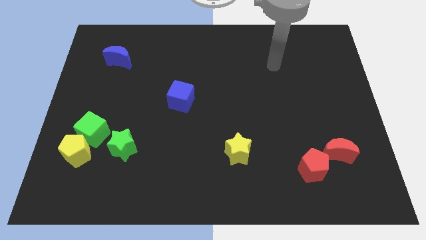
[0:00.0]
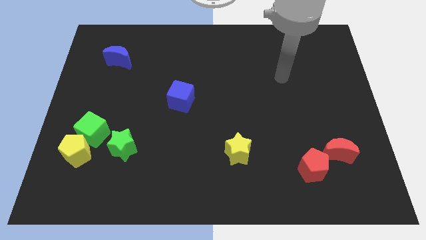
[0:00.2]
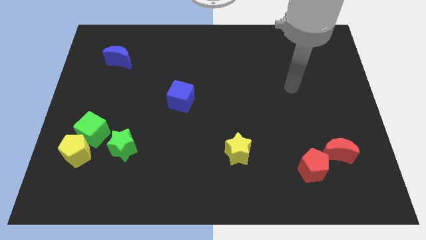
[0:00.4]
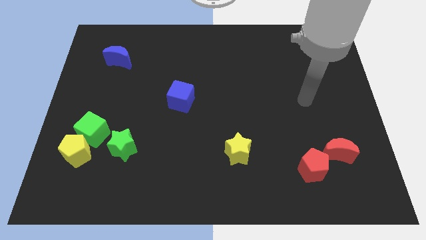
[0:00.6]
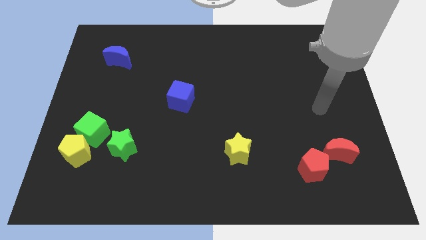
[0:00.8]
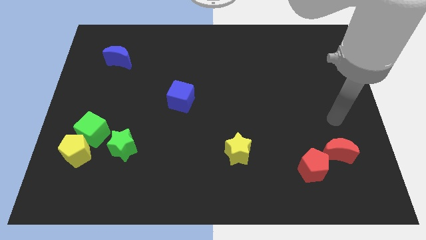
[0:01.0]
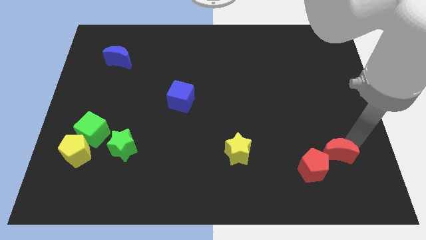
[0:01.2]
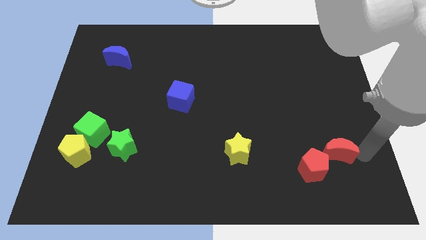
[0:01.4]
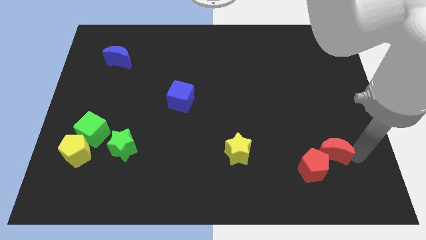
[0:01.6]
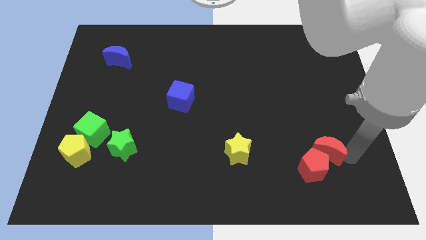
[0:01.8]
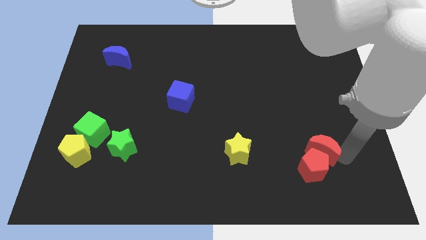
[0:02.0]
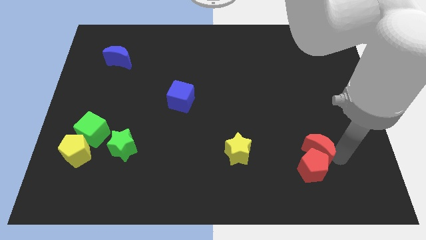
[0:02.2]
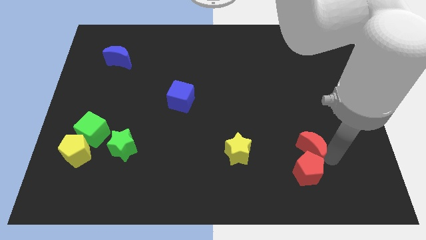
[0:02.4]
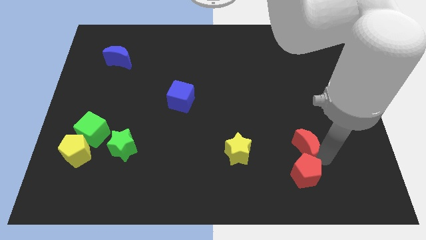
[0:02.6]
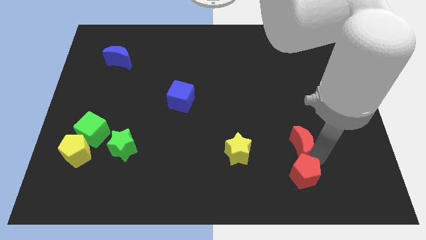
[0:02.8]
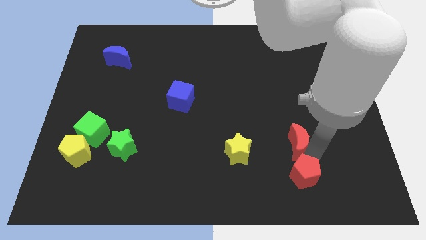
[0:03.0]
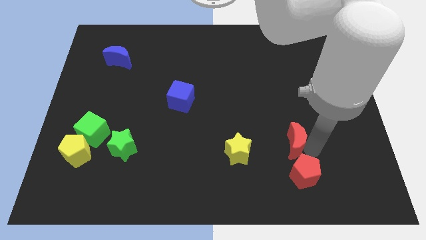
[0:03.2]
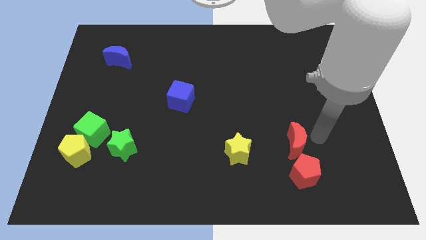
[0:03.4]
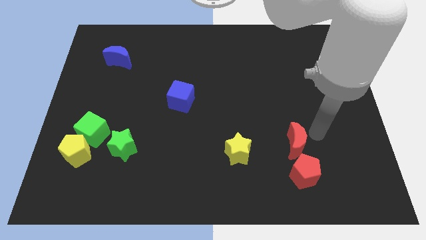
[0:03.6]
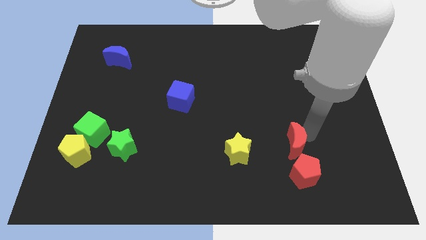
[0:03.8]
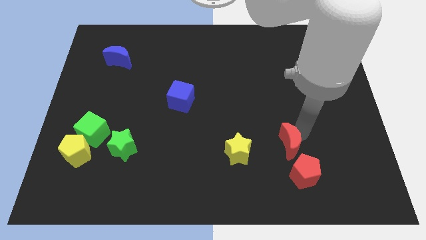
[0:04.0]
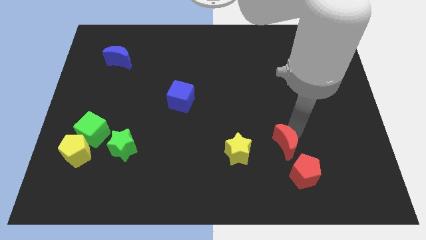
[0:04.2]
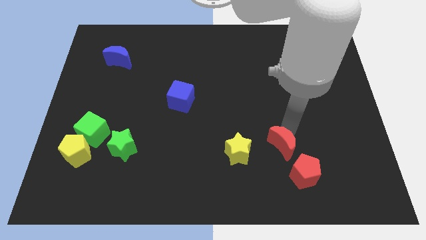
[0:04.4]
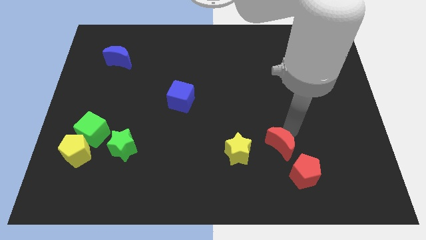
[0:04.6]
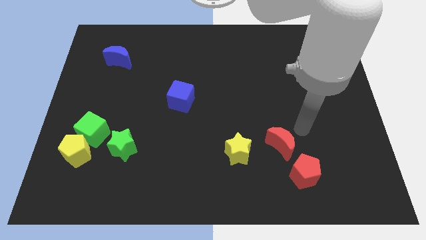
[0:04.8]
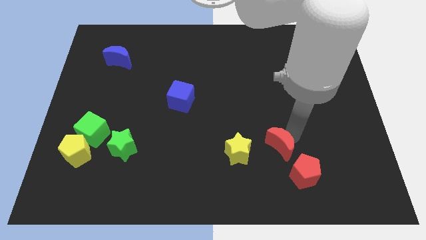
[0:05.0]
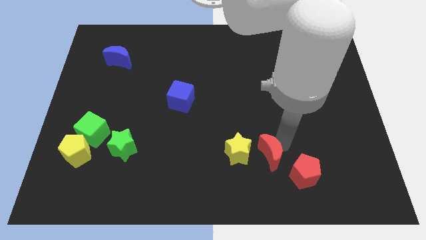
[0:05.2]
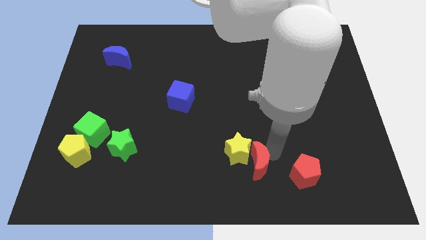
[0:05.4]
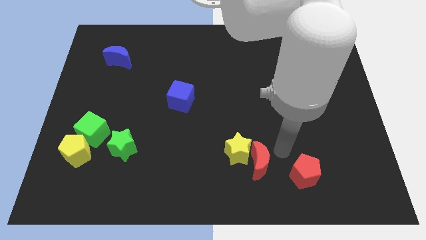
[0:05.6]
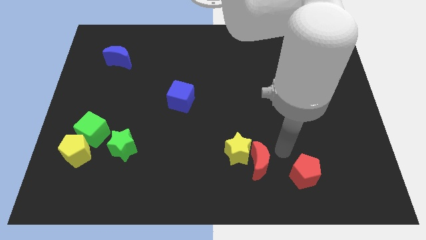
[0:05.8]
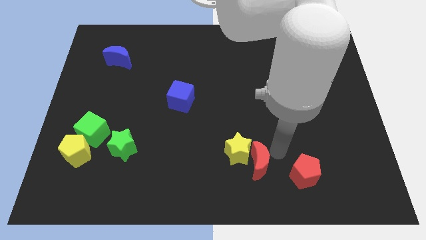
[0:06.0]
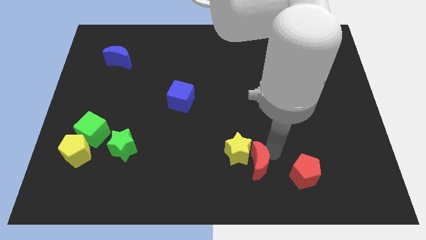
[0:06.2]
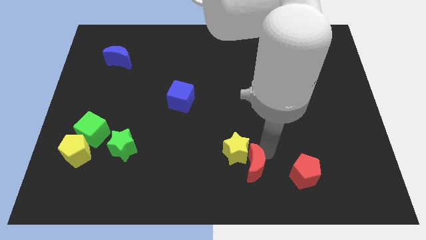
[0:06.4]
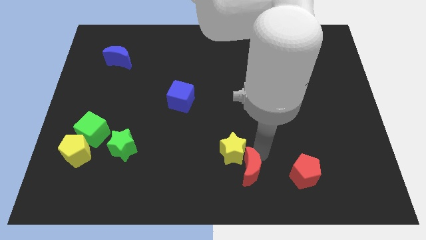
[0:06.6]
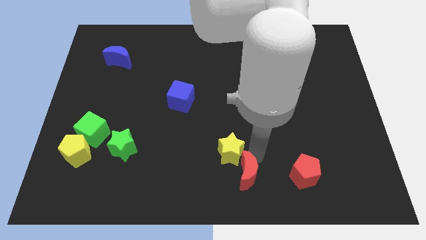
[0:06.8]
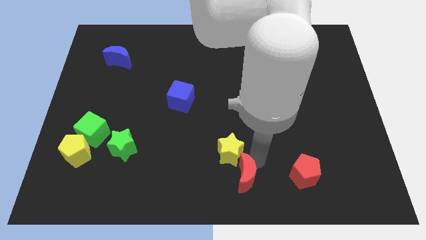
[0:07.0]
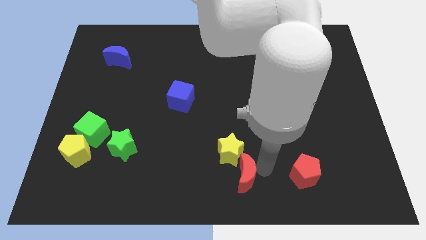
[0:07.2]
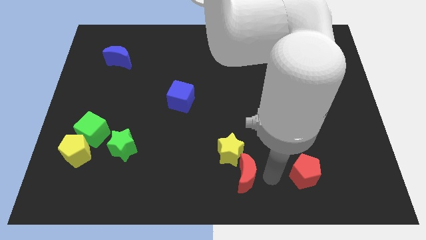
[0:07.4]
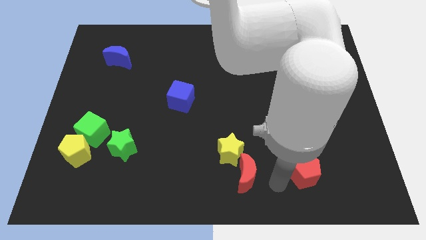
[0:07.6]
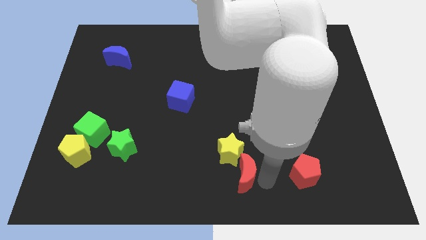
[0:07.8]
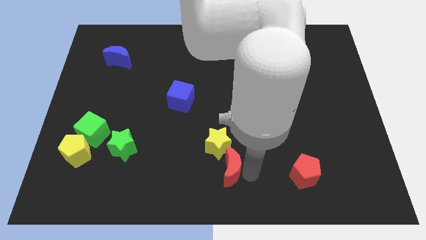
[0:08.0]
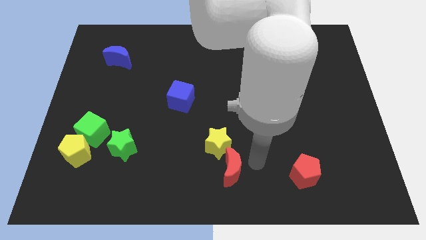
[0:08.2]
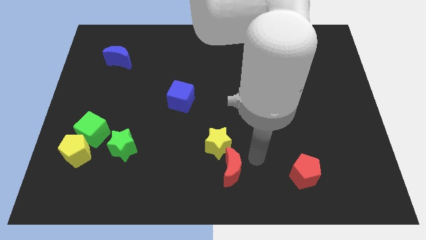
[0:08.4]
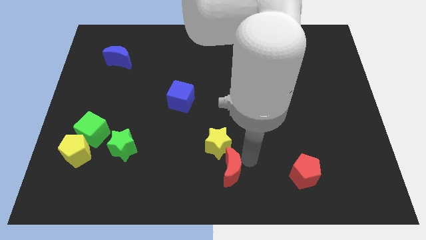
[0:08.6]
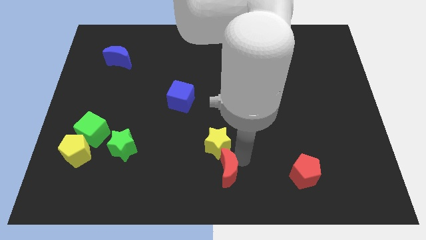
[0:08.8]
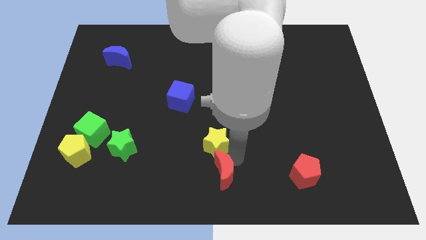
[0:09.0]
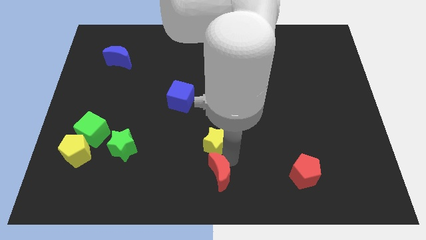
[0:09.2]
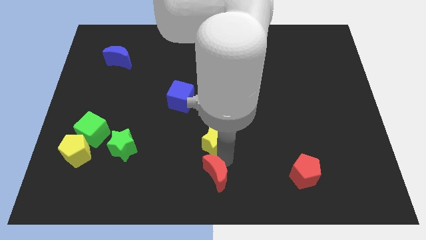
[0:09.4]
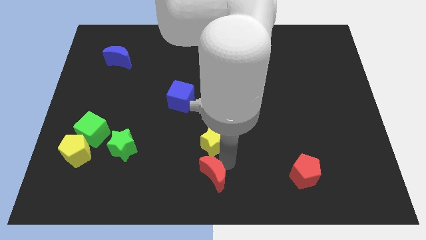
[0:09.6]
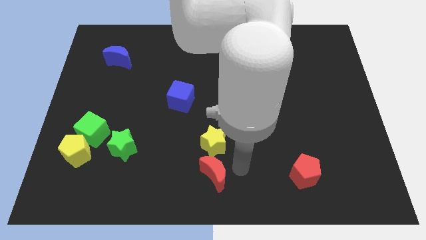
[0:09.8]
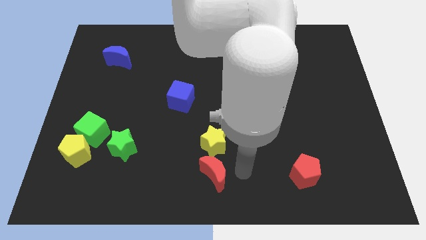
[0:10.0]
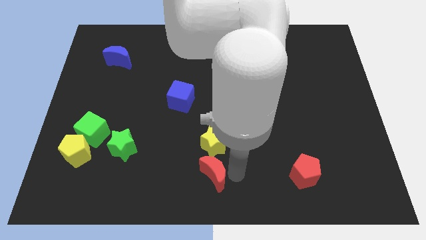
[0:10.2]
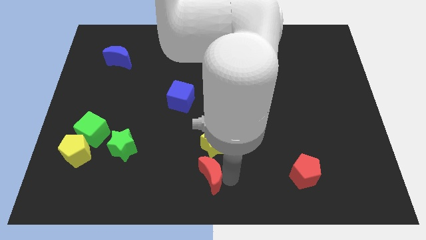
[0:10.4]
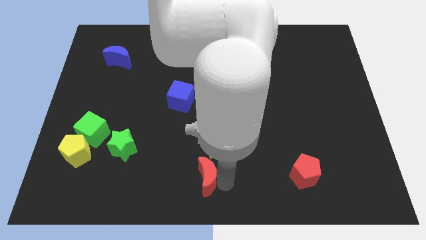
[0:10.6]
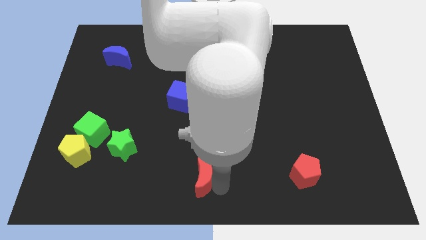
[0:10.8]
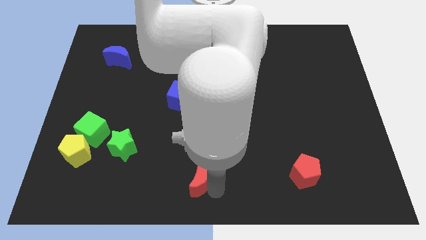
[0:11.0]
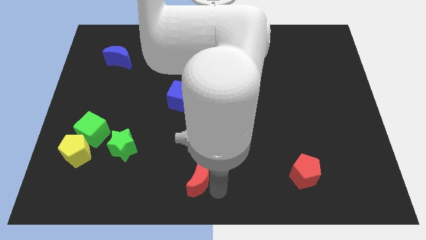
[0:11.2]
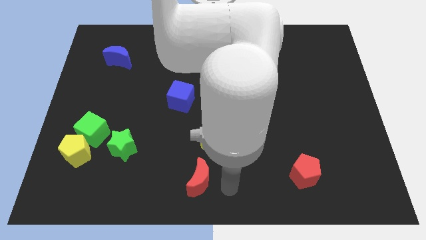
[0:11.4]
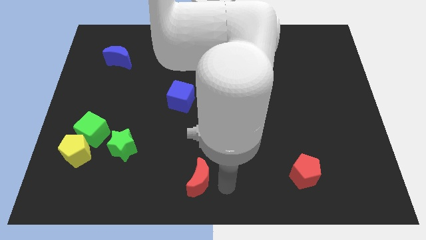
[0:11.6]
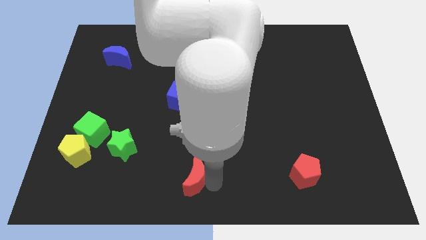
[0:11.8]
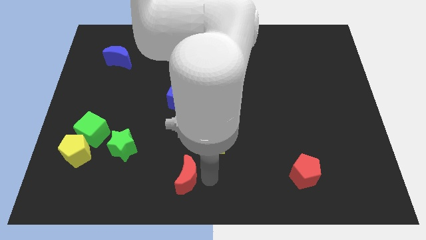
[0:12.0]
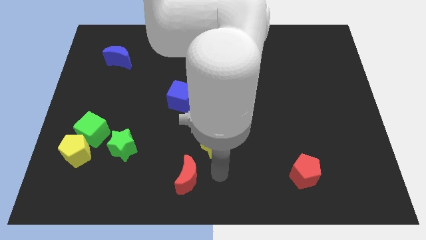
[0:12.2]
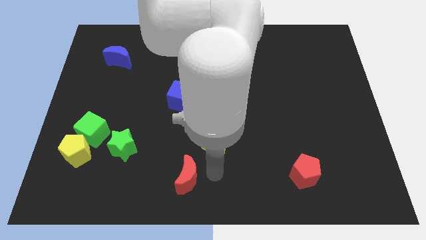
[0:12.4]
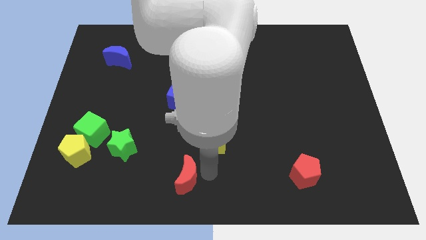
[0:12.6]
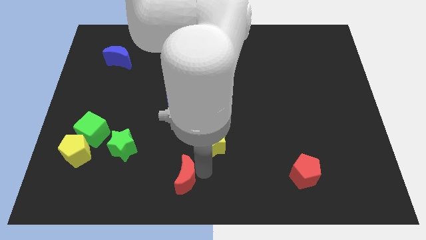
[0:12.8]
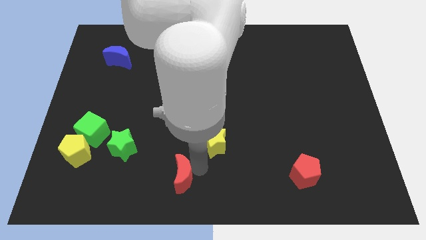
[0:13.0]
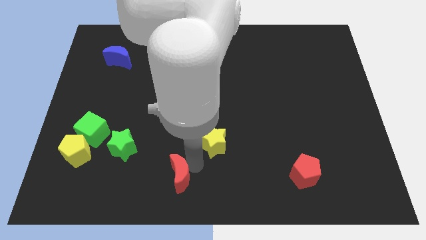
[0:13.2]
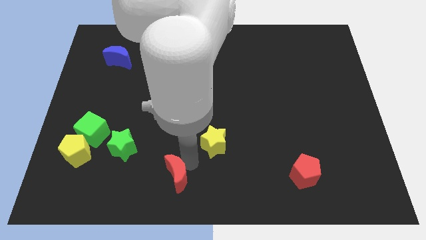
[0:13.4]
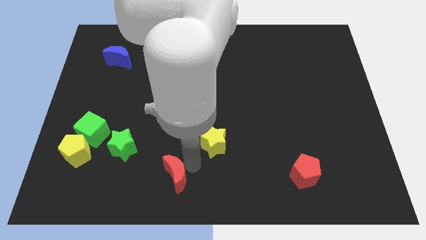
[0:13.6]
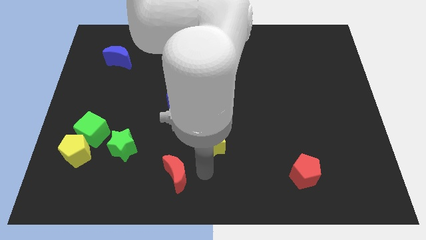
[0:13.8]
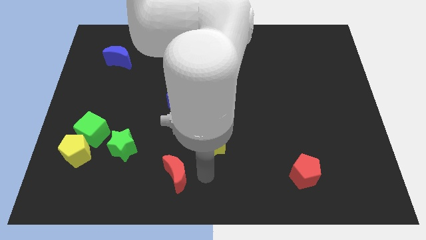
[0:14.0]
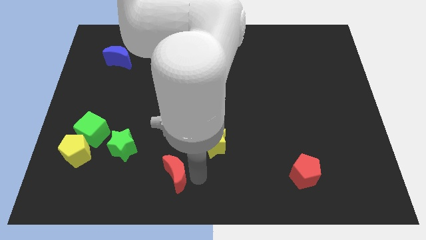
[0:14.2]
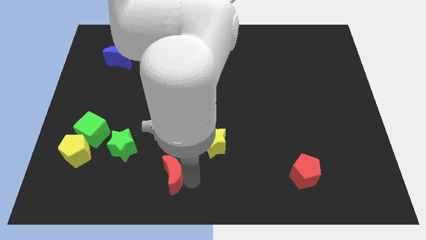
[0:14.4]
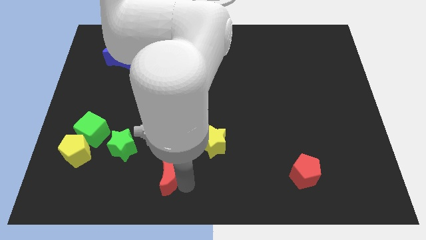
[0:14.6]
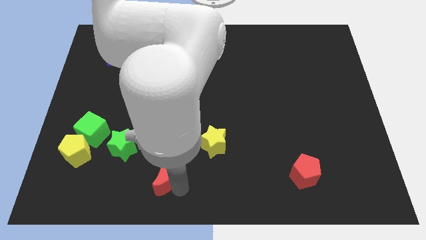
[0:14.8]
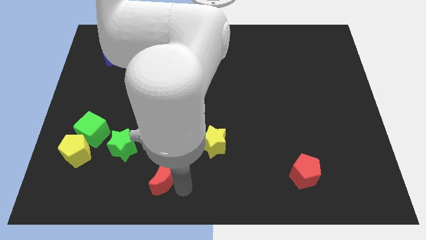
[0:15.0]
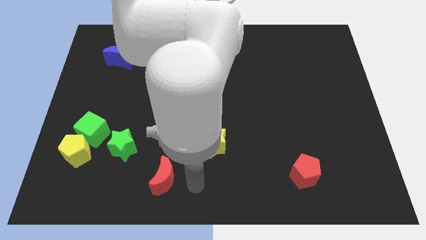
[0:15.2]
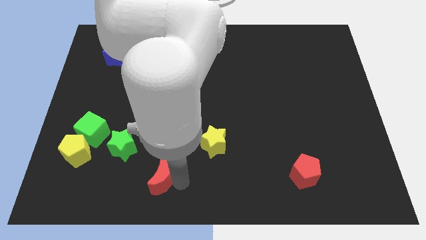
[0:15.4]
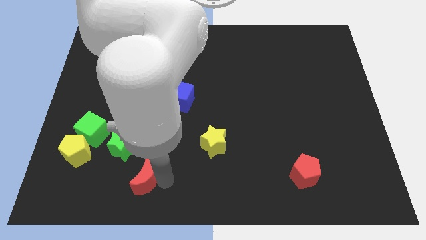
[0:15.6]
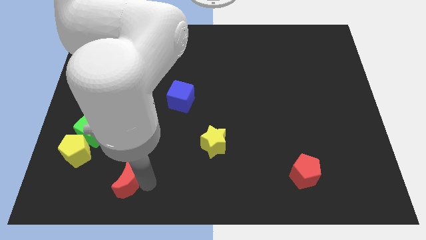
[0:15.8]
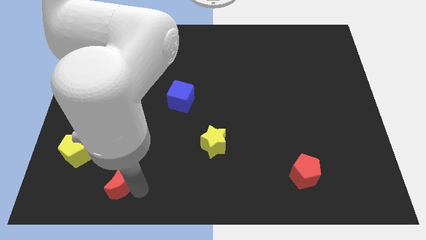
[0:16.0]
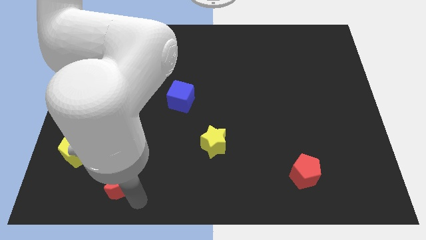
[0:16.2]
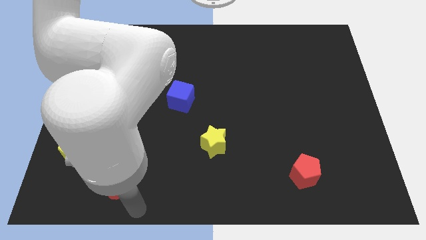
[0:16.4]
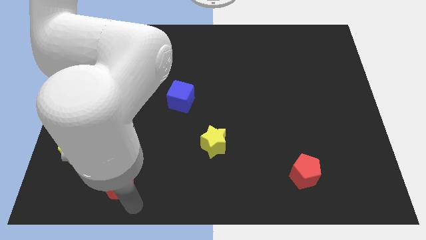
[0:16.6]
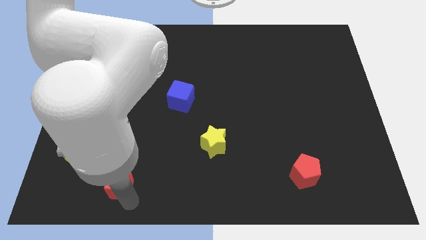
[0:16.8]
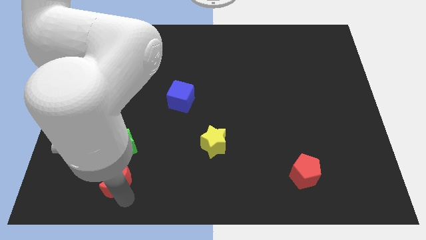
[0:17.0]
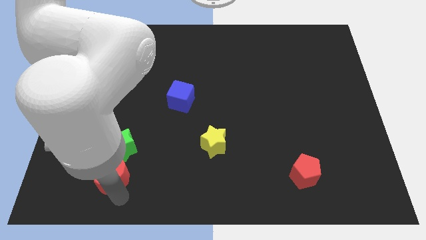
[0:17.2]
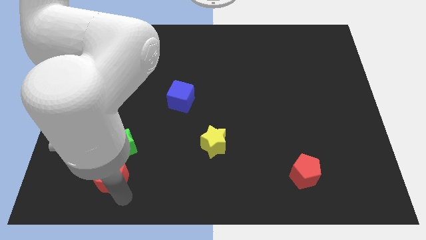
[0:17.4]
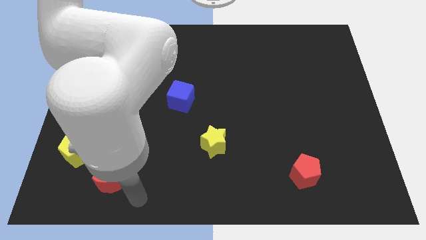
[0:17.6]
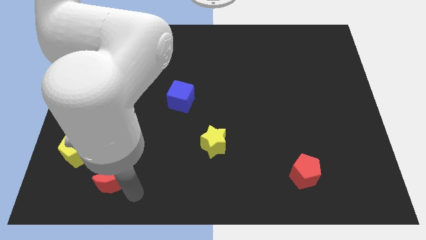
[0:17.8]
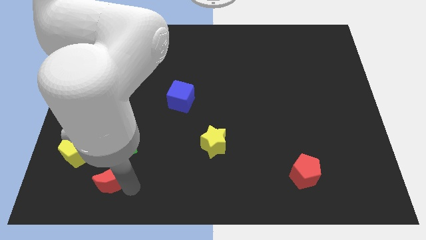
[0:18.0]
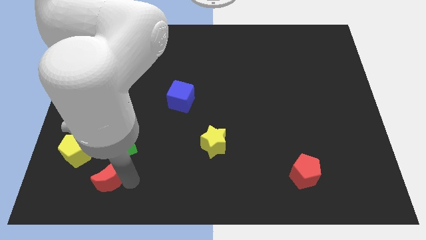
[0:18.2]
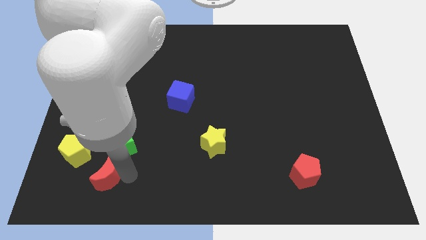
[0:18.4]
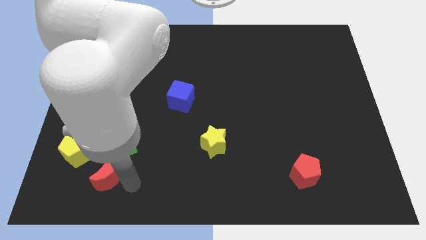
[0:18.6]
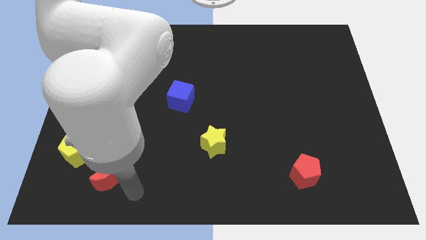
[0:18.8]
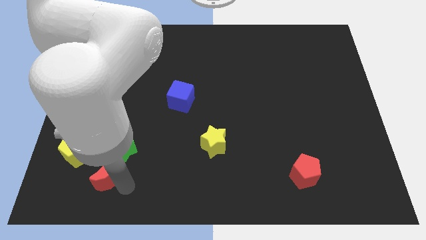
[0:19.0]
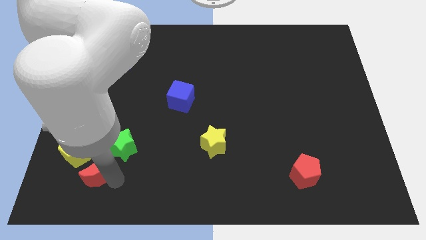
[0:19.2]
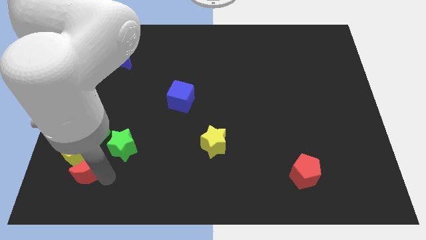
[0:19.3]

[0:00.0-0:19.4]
put the red moon close to the yellow pentagon
